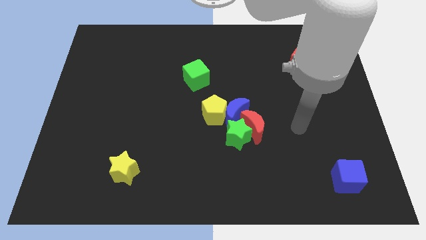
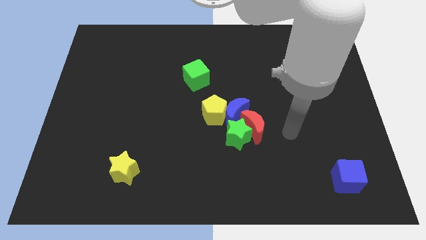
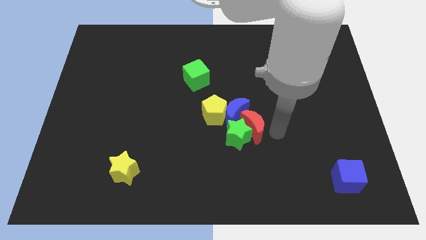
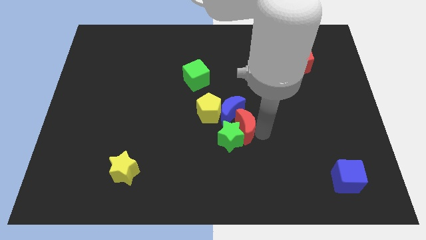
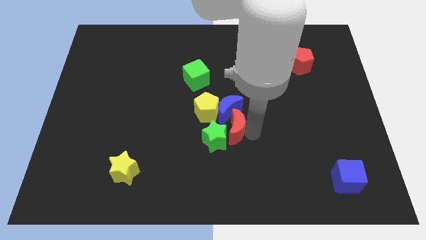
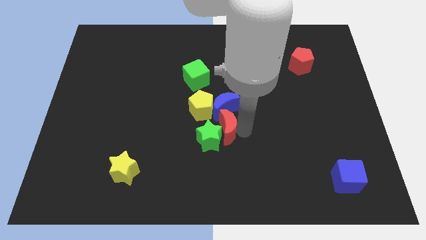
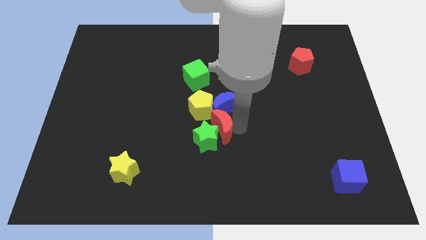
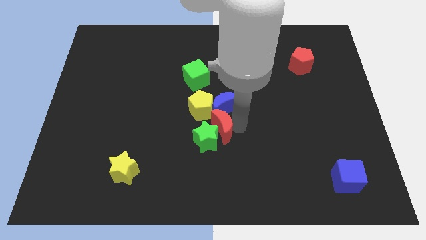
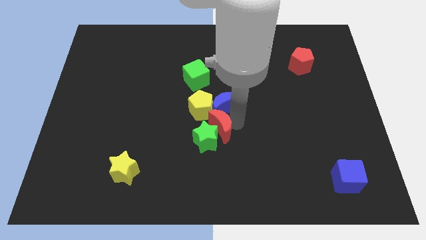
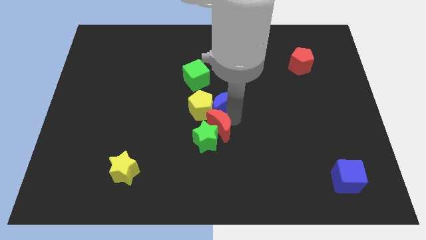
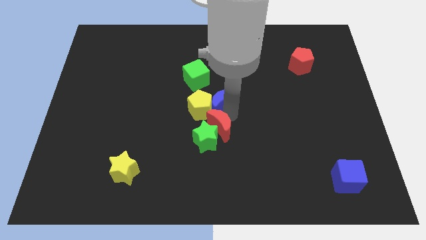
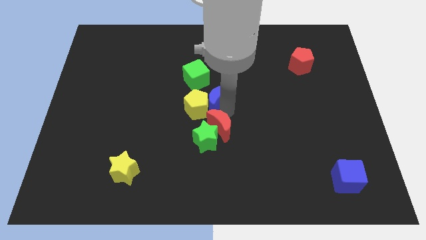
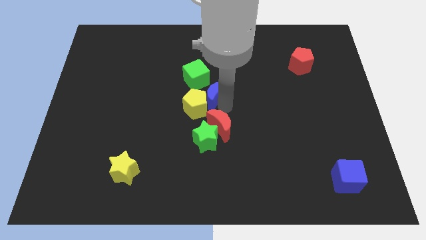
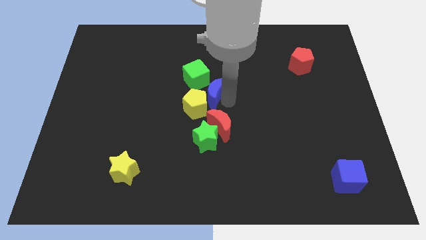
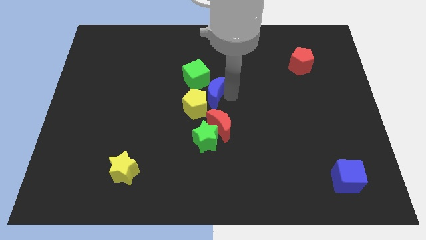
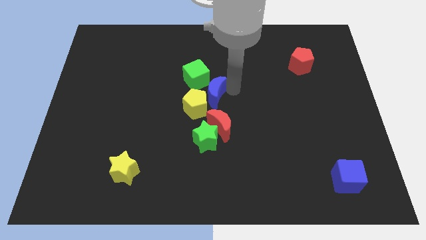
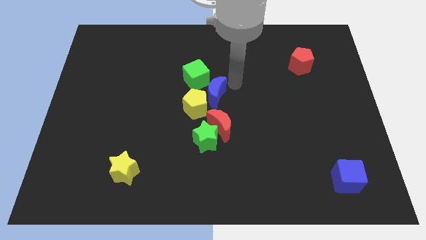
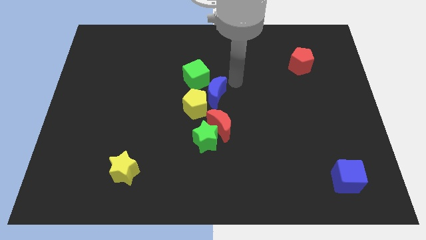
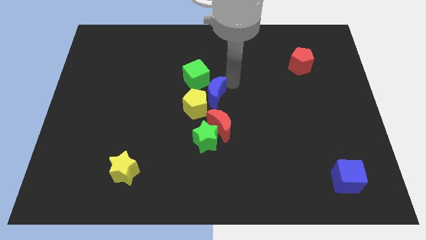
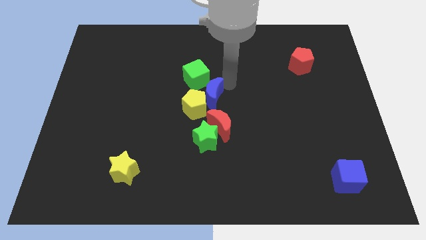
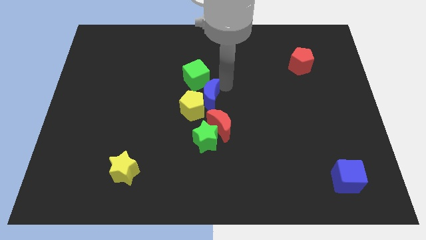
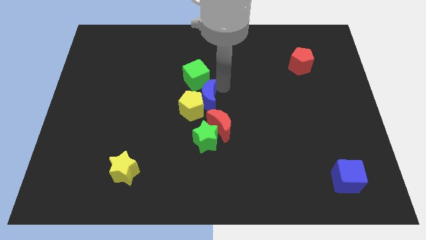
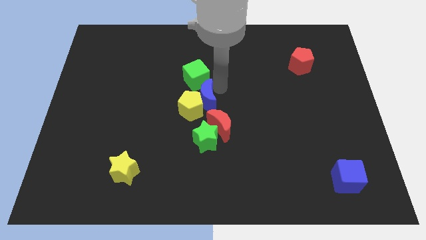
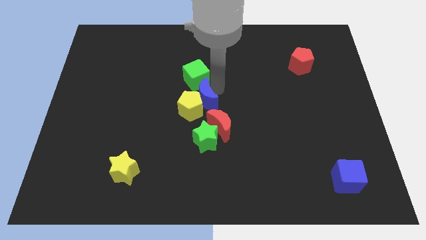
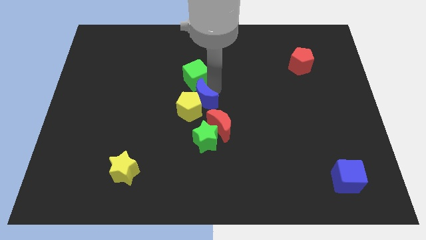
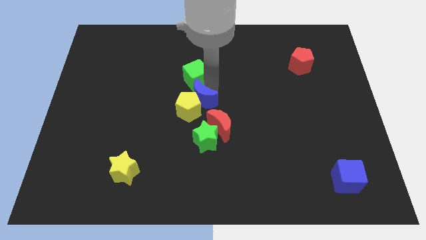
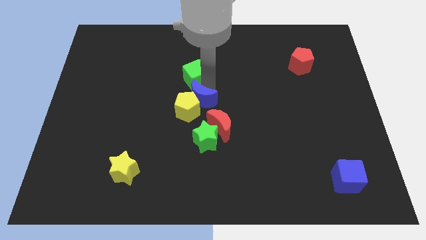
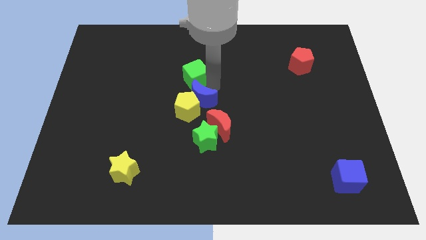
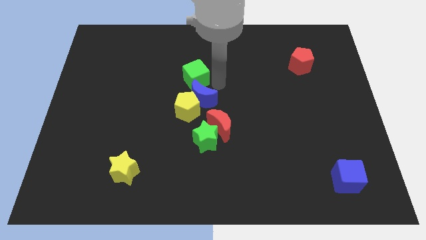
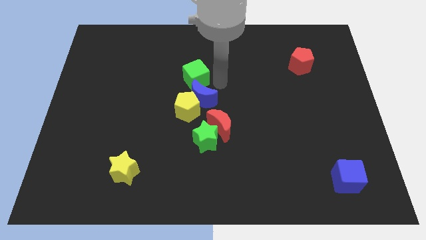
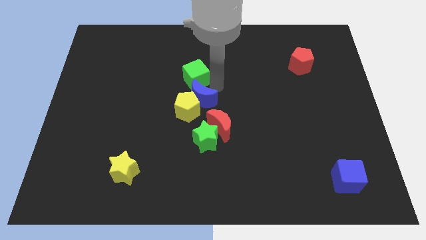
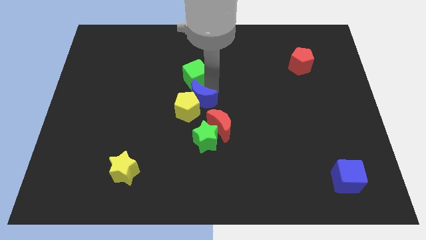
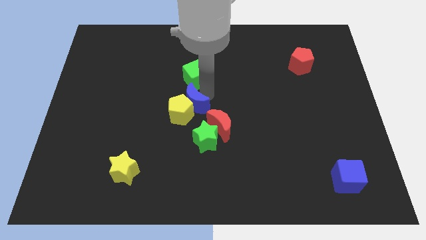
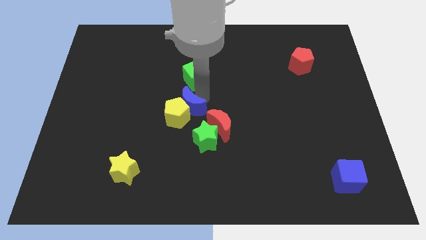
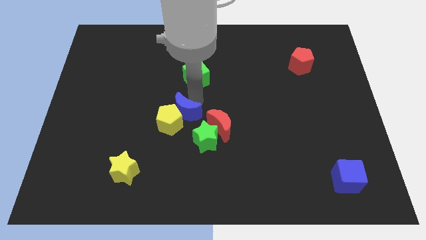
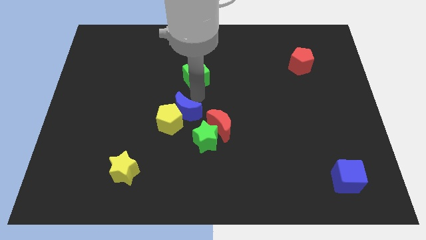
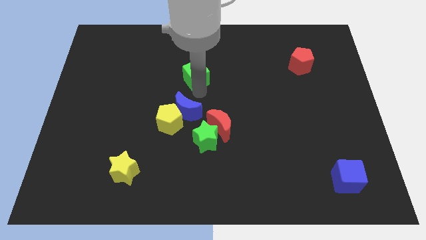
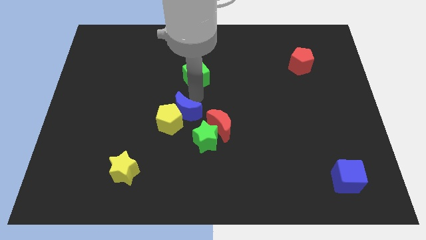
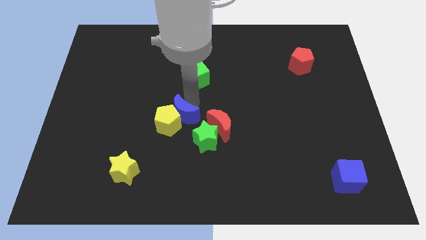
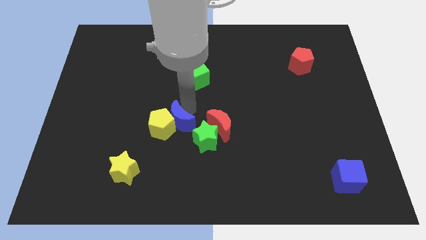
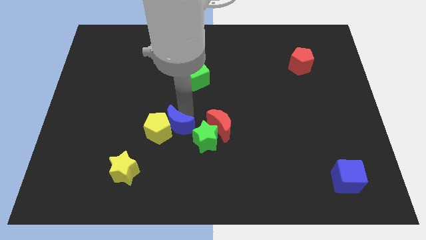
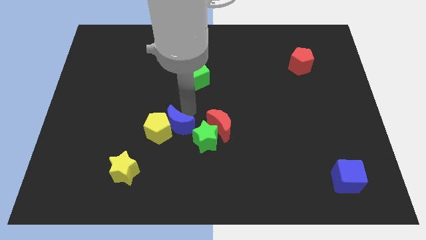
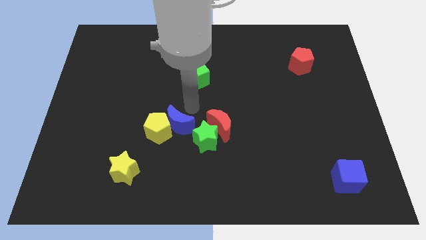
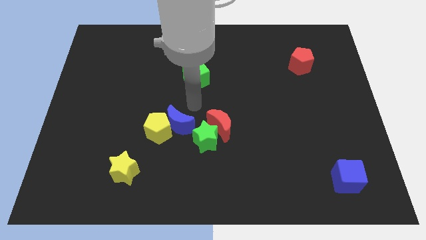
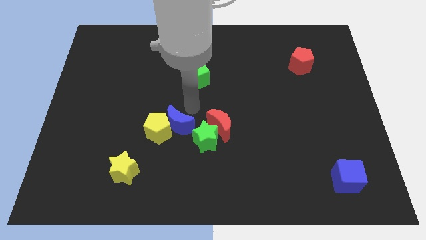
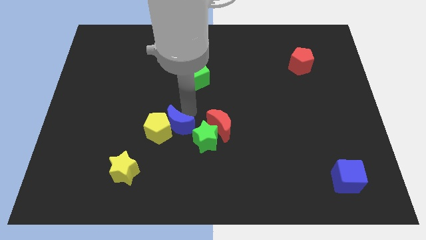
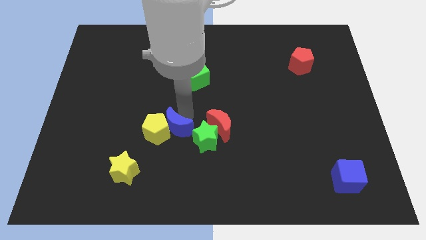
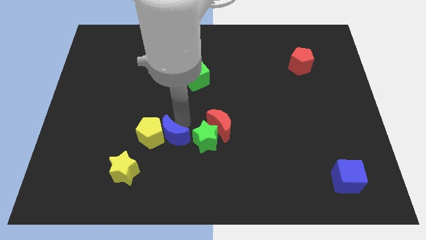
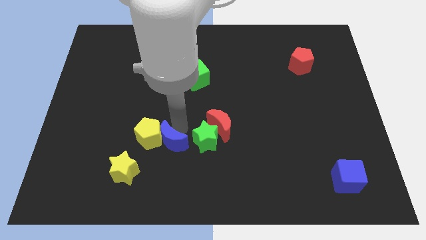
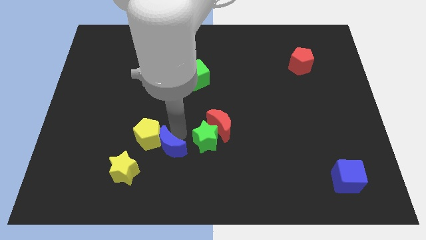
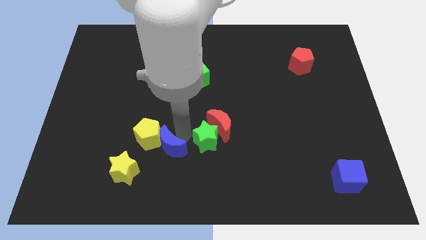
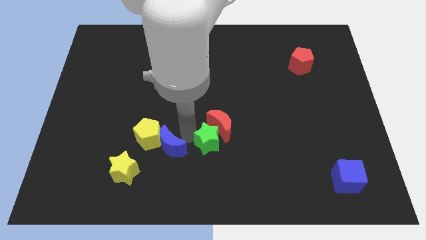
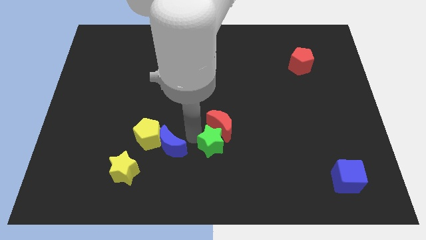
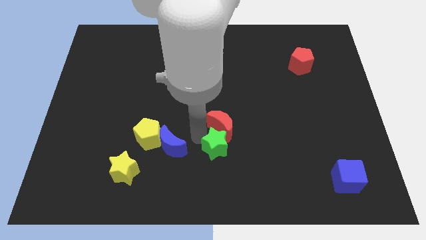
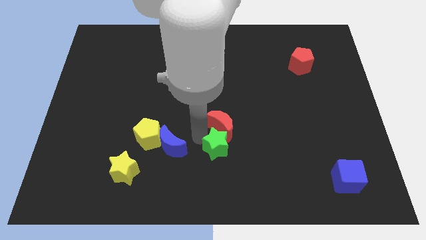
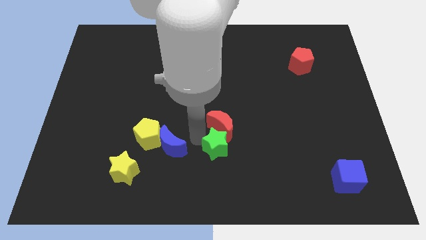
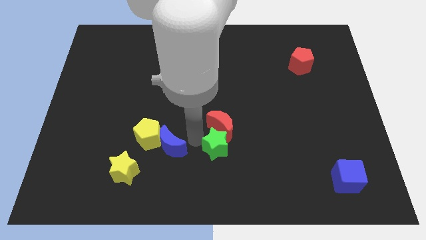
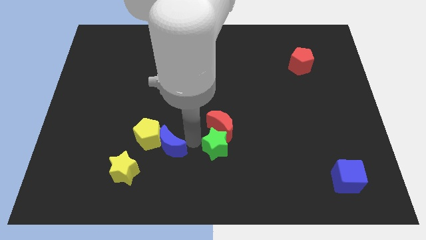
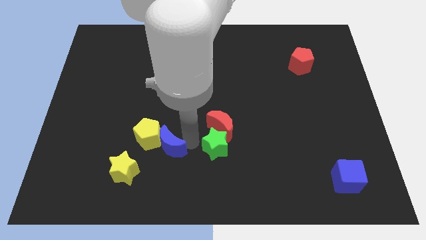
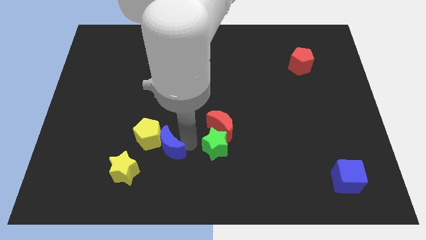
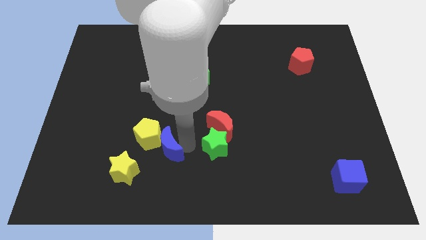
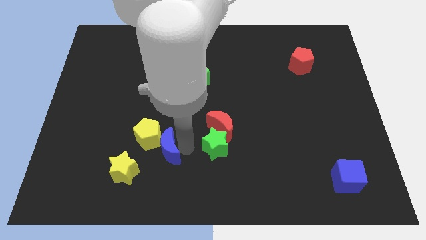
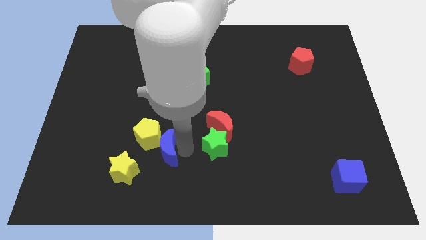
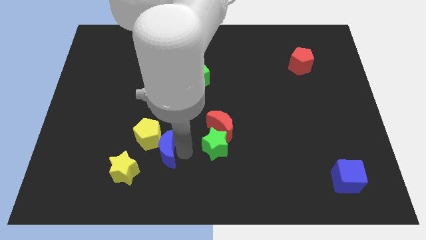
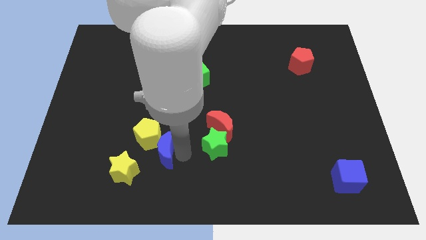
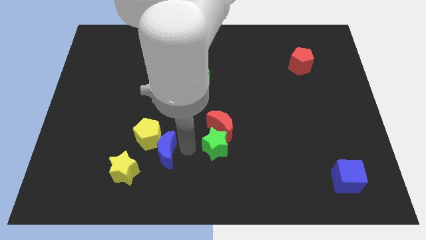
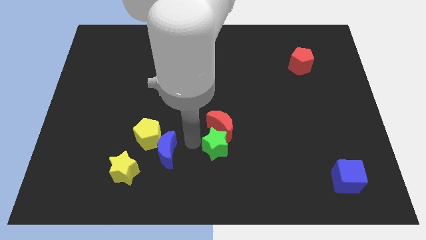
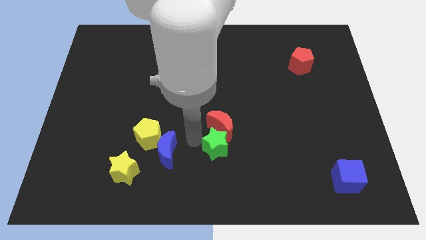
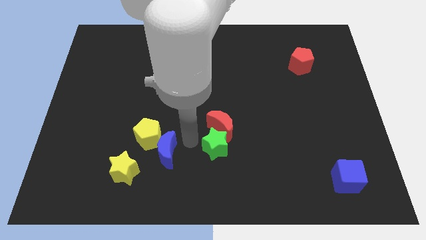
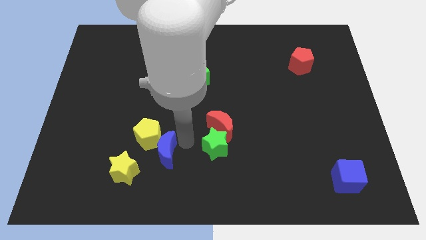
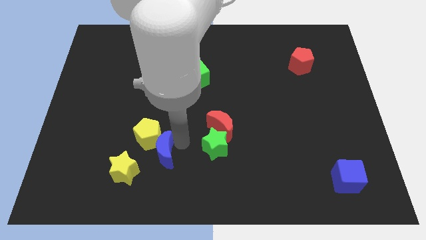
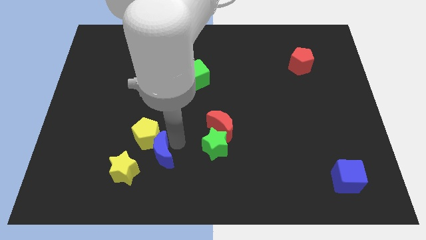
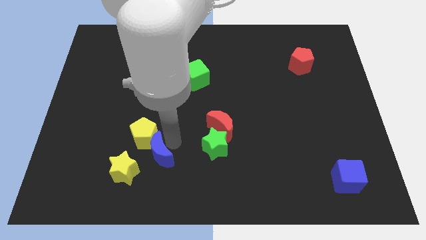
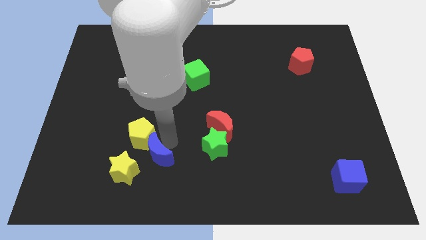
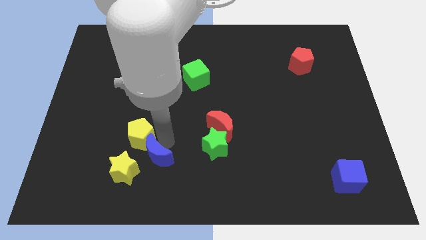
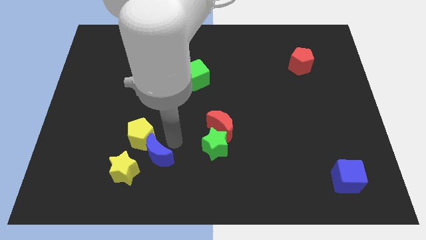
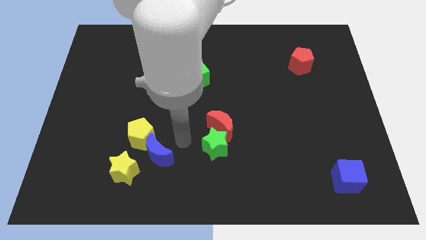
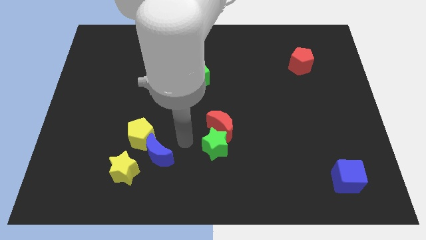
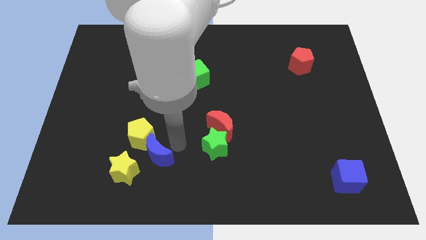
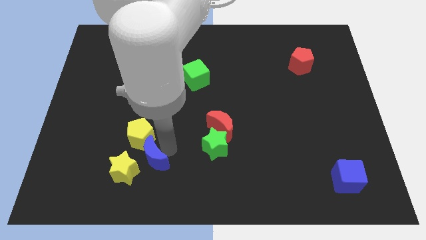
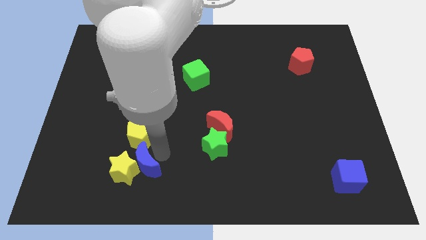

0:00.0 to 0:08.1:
move the blue moon next to the yellow star
